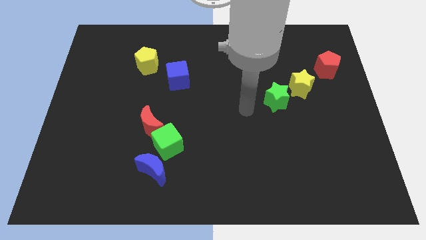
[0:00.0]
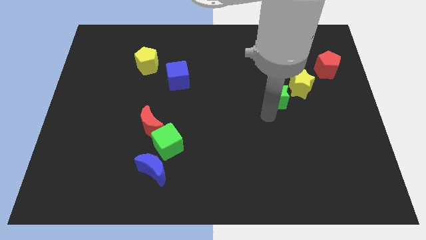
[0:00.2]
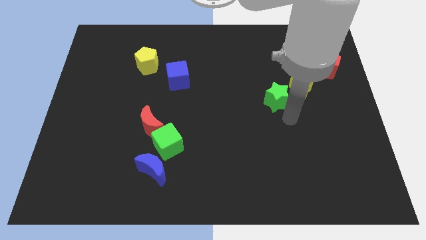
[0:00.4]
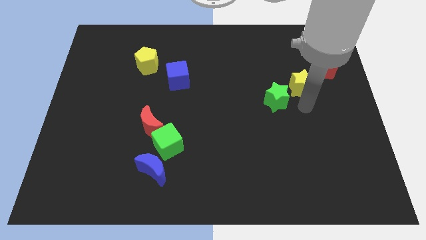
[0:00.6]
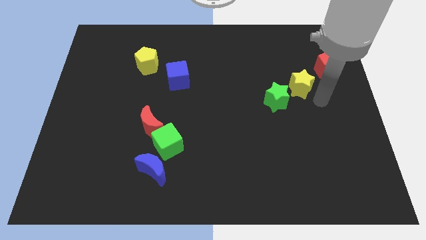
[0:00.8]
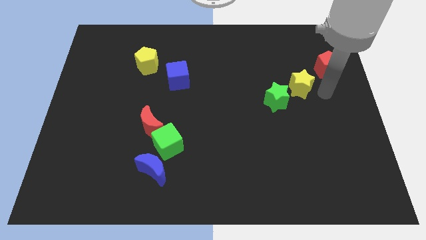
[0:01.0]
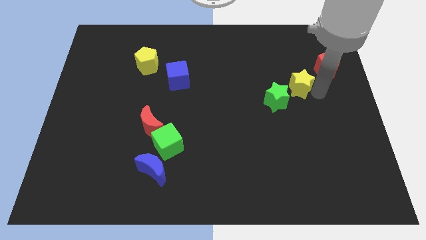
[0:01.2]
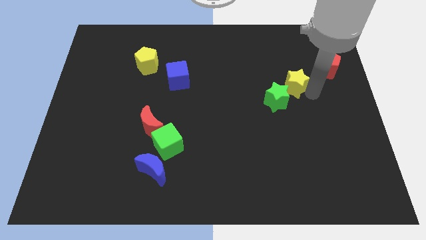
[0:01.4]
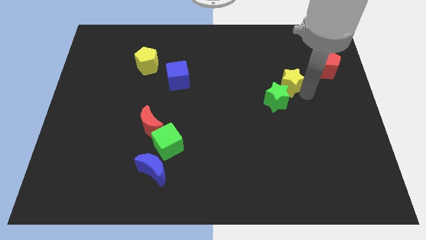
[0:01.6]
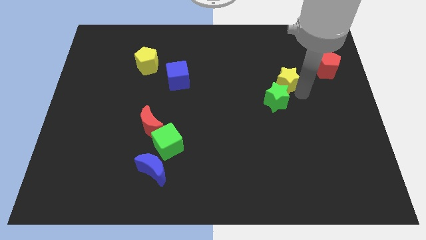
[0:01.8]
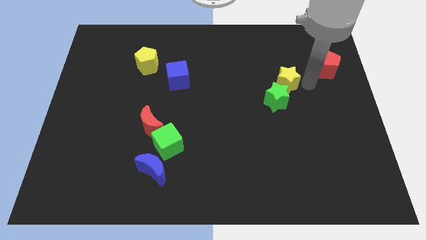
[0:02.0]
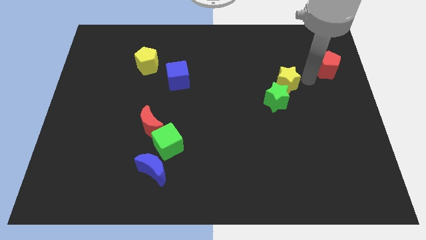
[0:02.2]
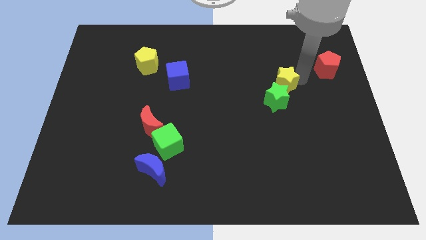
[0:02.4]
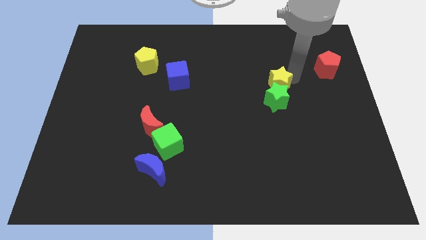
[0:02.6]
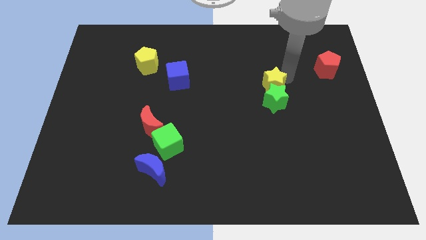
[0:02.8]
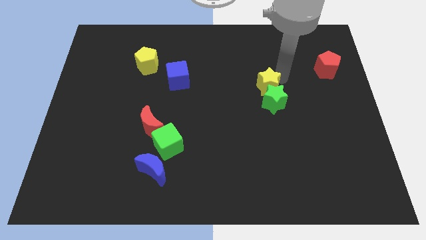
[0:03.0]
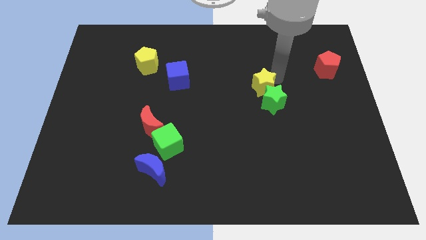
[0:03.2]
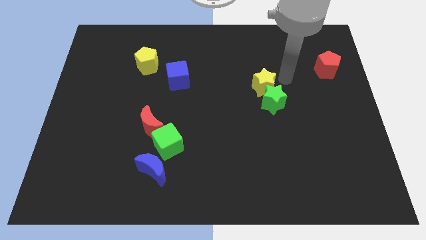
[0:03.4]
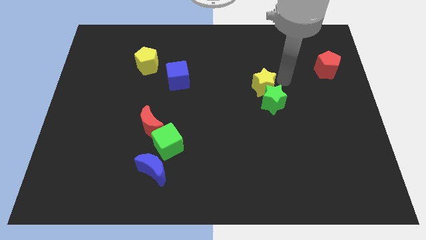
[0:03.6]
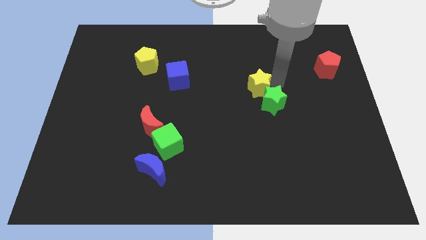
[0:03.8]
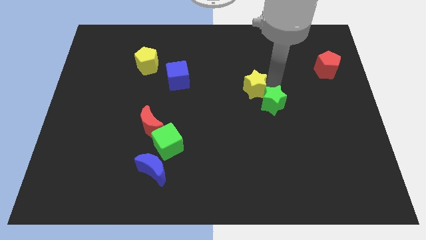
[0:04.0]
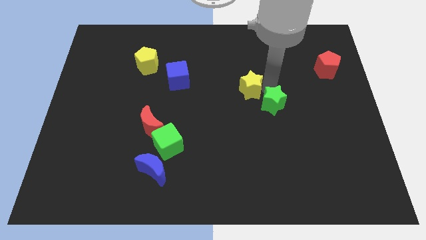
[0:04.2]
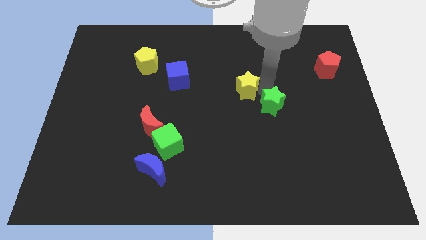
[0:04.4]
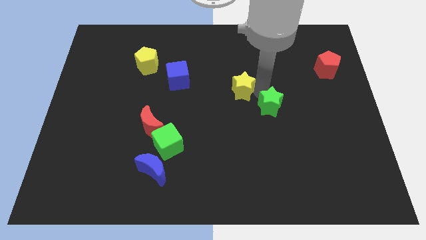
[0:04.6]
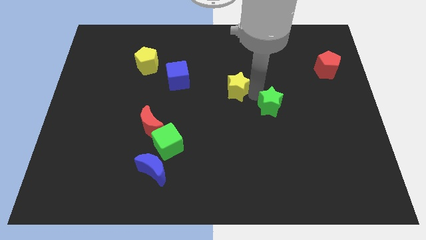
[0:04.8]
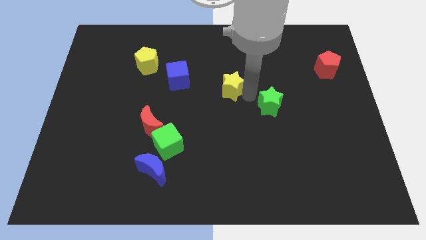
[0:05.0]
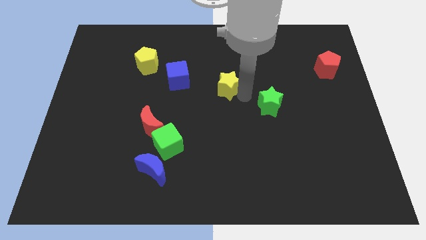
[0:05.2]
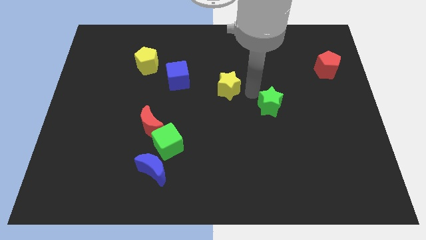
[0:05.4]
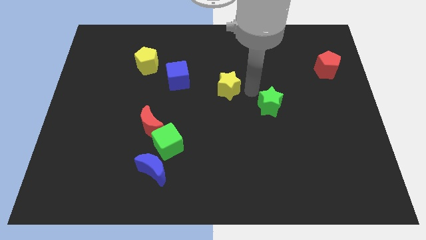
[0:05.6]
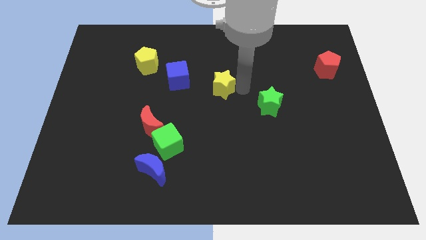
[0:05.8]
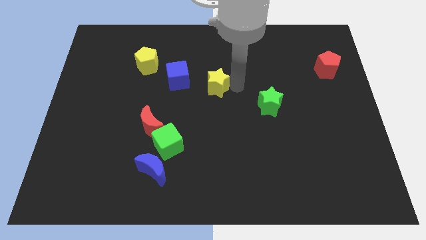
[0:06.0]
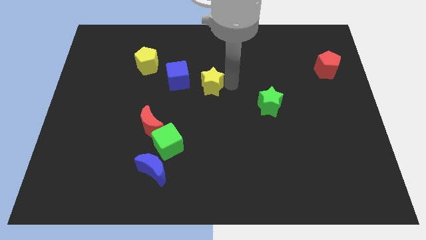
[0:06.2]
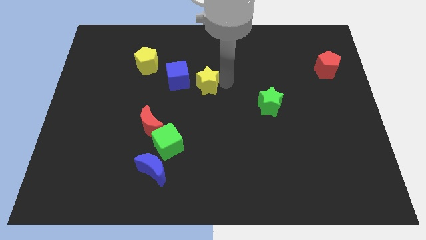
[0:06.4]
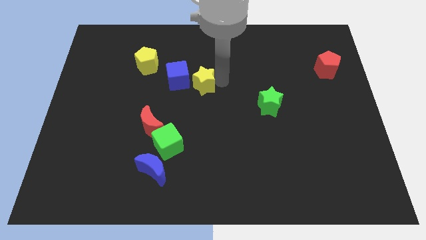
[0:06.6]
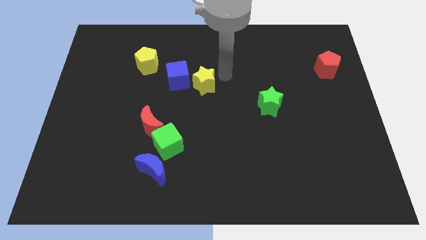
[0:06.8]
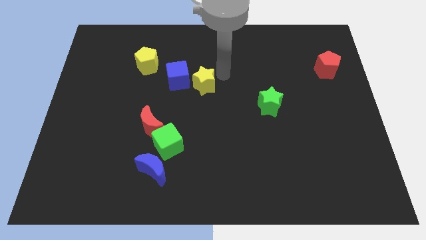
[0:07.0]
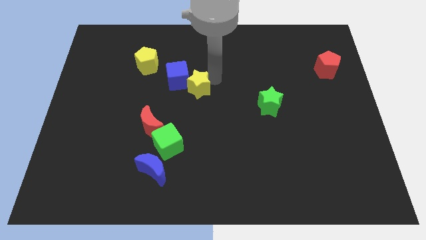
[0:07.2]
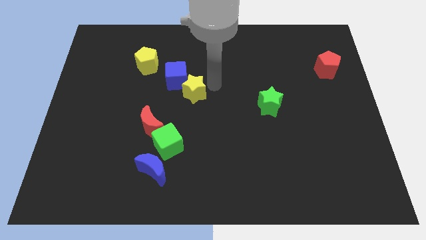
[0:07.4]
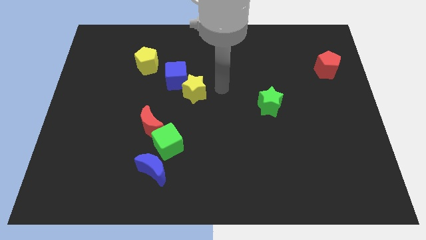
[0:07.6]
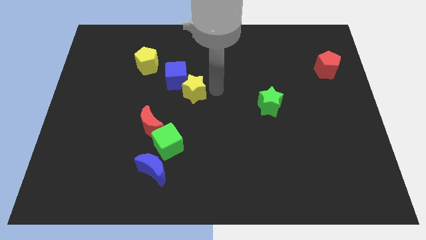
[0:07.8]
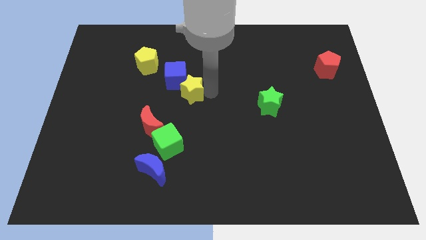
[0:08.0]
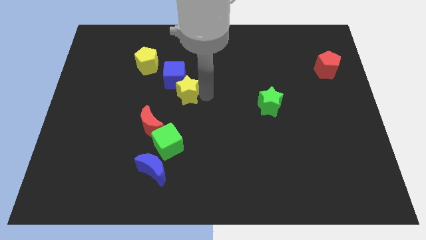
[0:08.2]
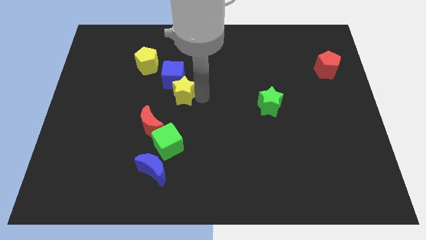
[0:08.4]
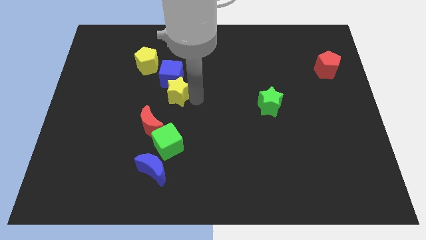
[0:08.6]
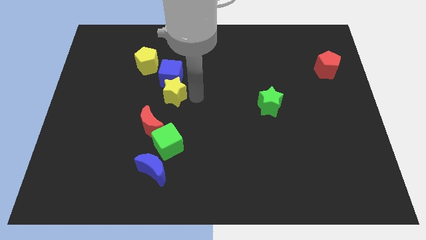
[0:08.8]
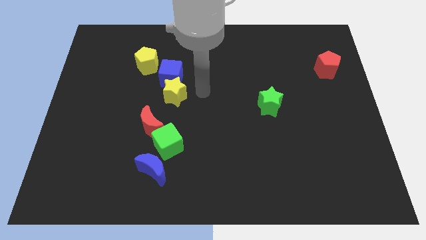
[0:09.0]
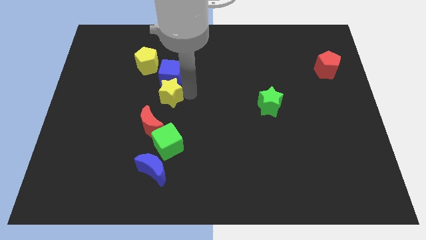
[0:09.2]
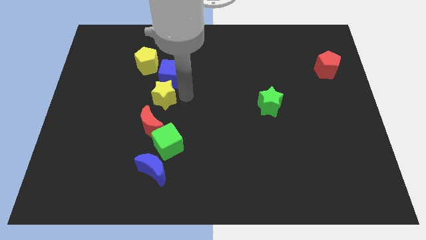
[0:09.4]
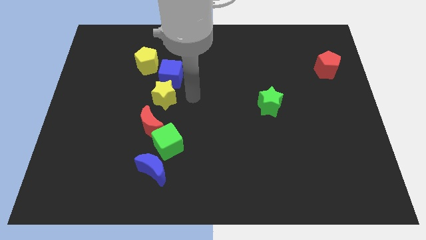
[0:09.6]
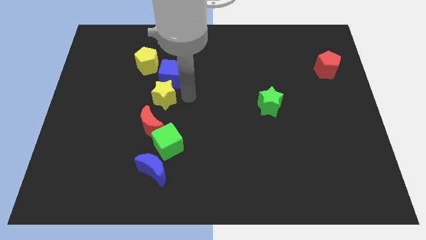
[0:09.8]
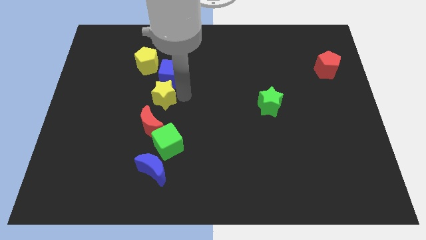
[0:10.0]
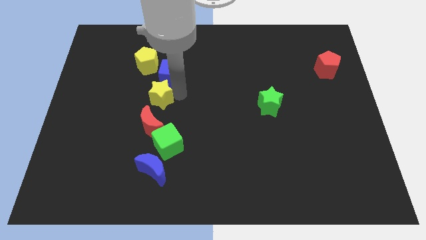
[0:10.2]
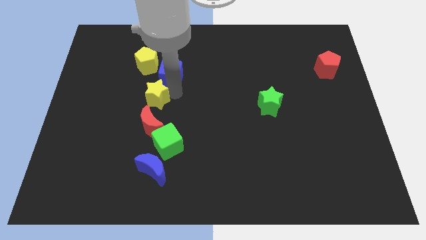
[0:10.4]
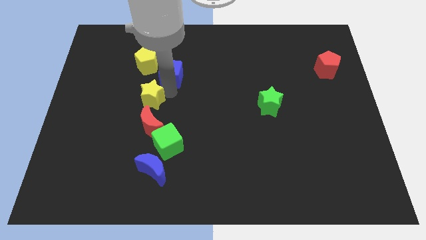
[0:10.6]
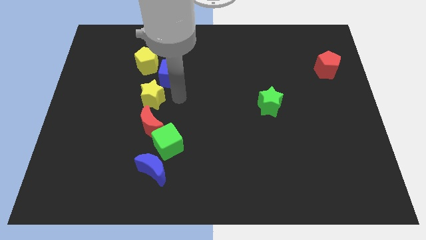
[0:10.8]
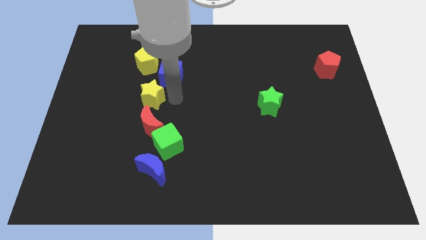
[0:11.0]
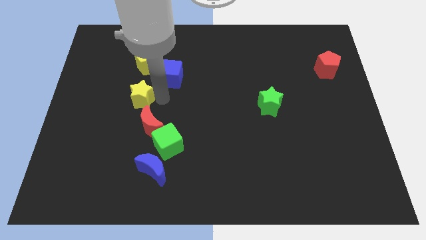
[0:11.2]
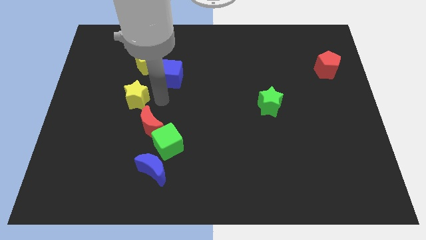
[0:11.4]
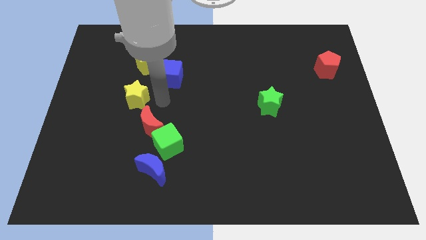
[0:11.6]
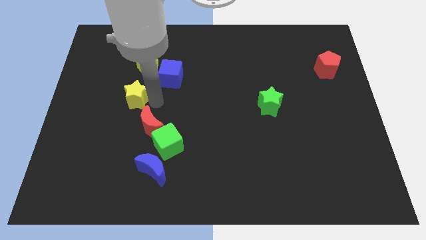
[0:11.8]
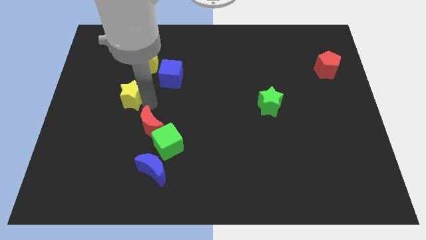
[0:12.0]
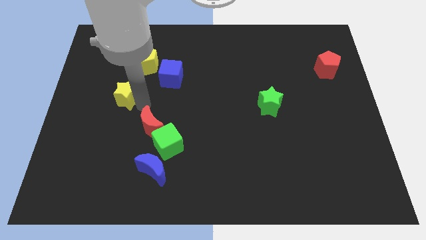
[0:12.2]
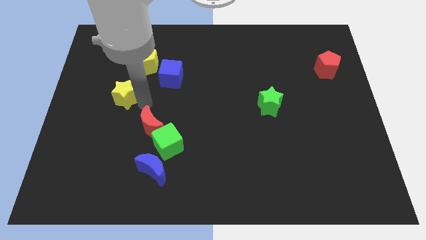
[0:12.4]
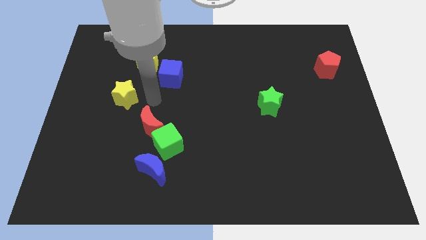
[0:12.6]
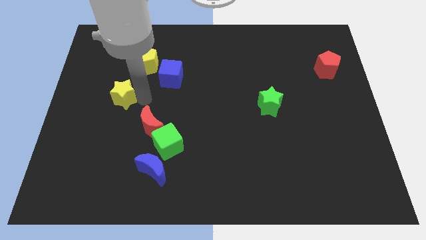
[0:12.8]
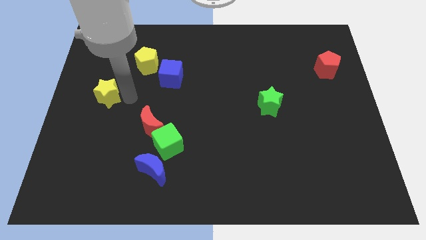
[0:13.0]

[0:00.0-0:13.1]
move the yellow star to the left side
